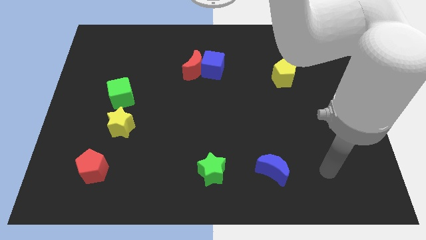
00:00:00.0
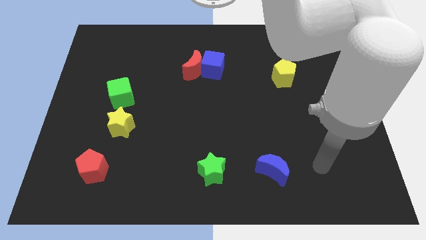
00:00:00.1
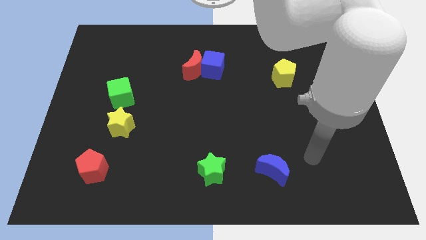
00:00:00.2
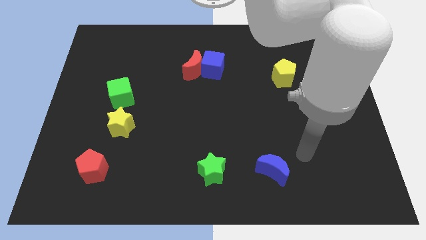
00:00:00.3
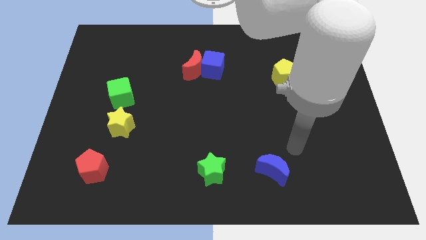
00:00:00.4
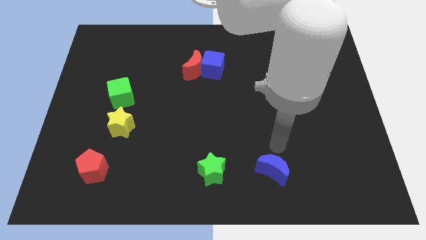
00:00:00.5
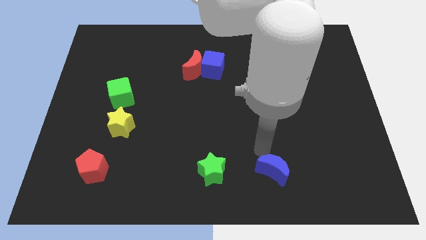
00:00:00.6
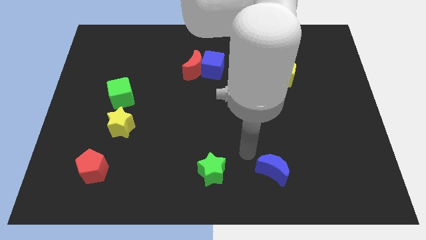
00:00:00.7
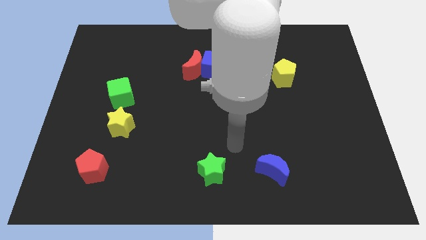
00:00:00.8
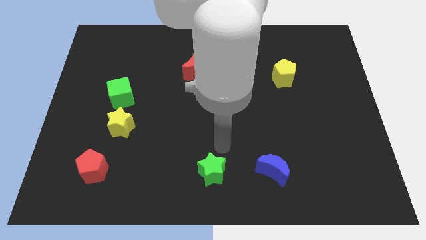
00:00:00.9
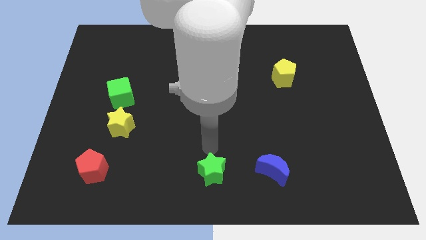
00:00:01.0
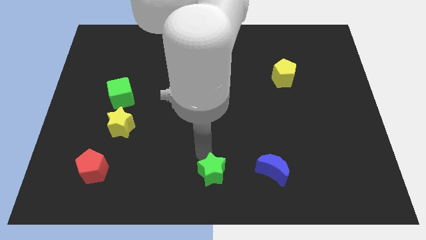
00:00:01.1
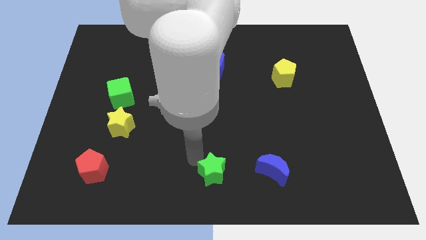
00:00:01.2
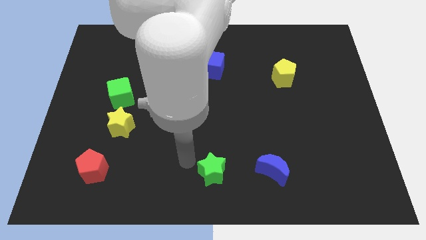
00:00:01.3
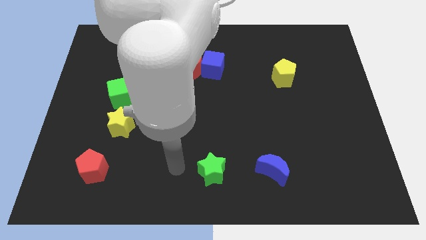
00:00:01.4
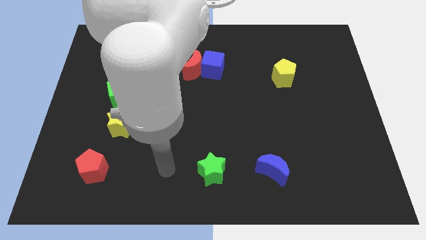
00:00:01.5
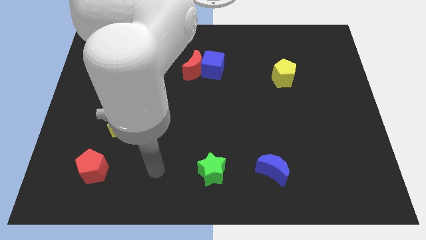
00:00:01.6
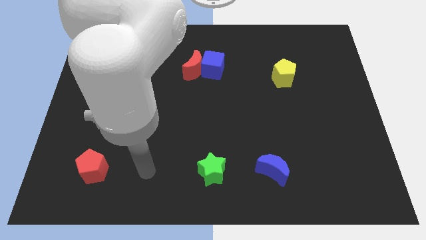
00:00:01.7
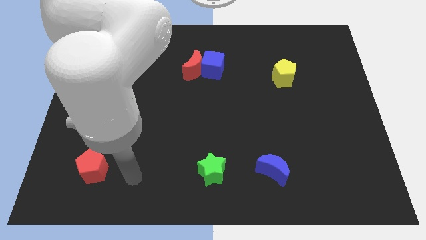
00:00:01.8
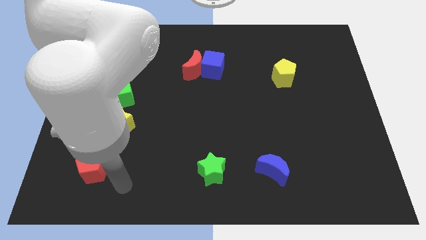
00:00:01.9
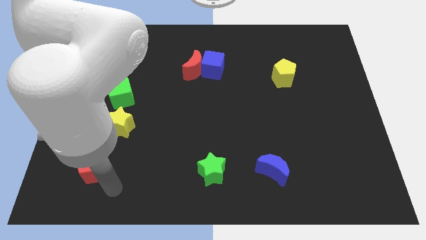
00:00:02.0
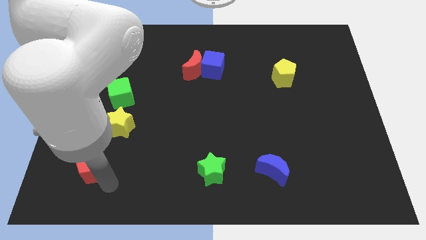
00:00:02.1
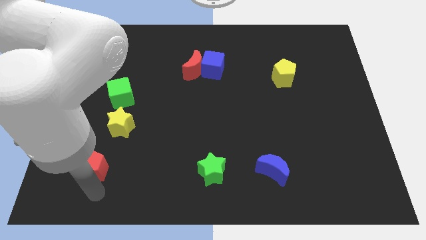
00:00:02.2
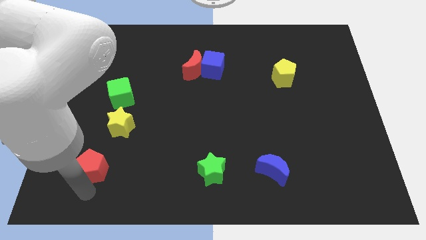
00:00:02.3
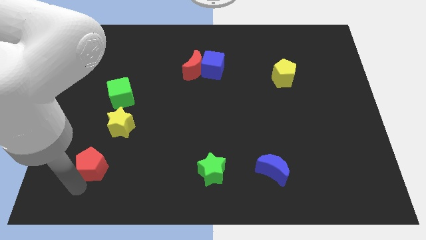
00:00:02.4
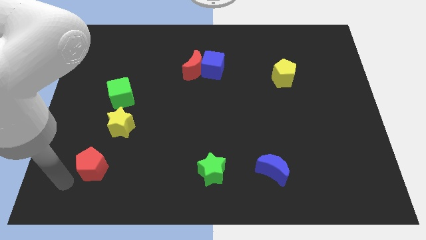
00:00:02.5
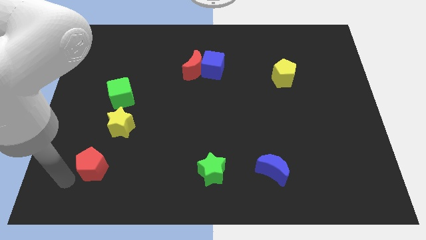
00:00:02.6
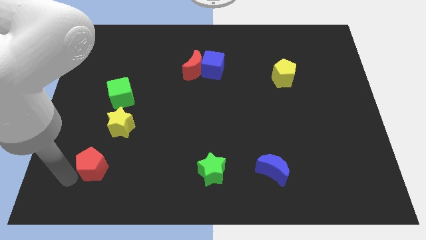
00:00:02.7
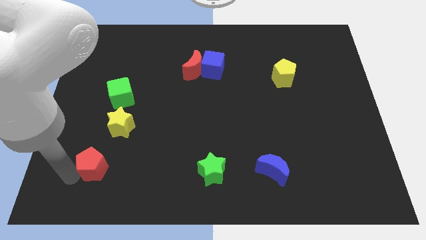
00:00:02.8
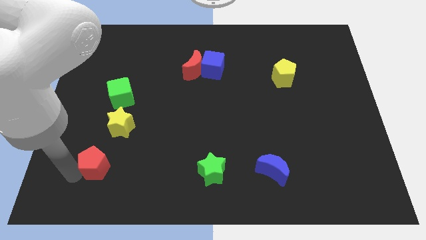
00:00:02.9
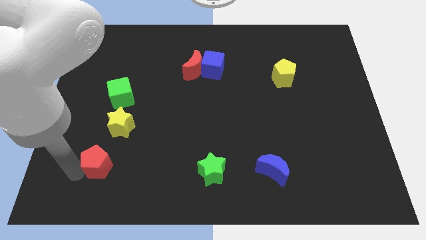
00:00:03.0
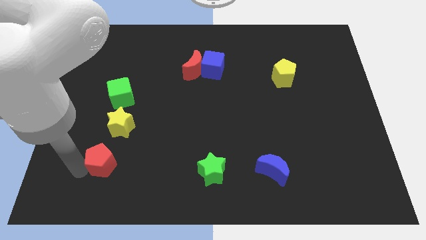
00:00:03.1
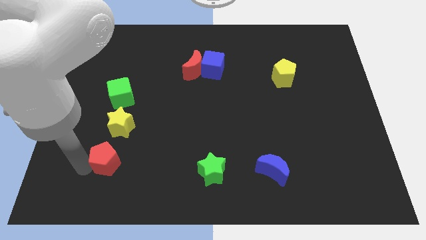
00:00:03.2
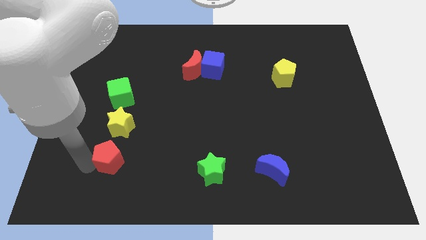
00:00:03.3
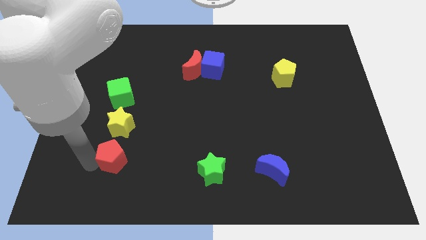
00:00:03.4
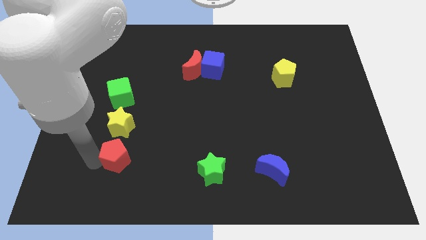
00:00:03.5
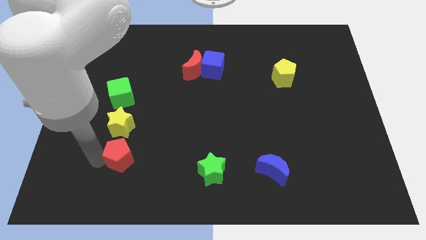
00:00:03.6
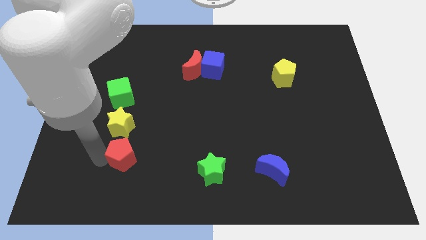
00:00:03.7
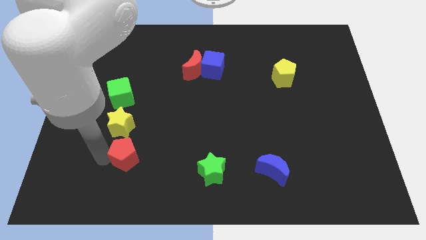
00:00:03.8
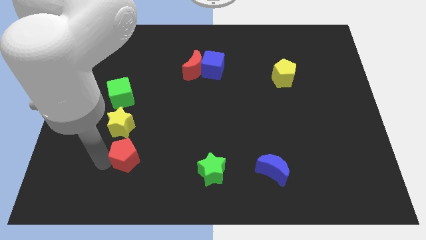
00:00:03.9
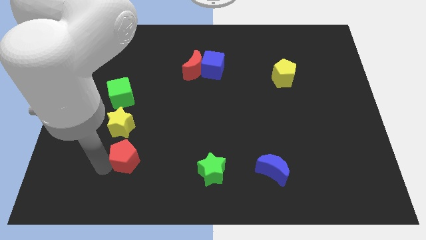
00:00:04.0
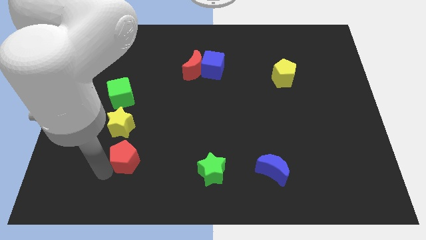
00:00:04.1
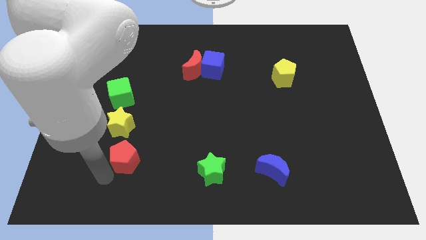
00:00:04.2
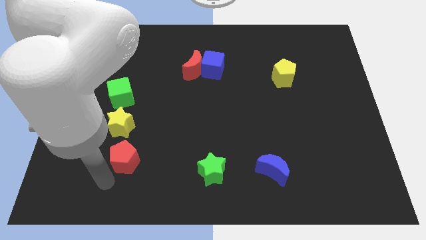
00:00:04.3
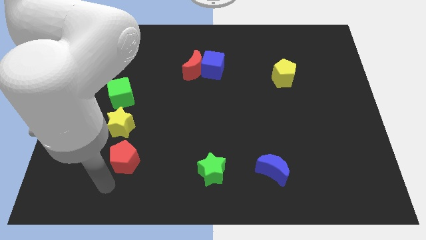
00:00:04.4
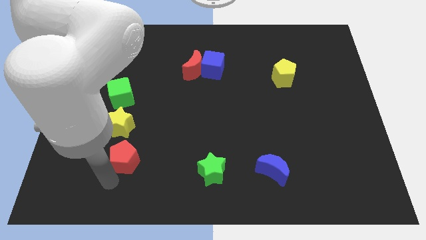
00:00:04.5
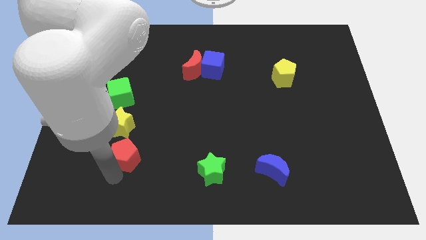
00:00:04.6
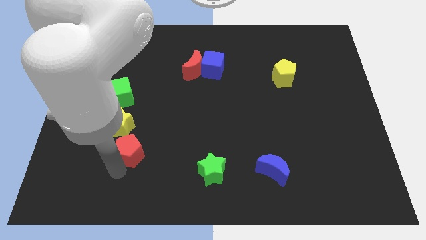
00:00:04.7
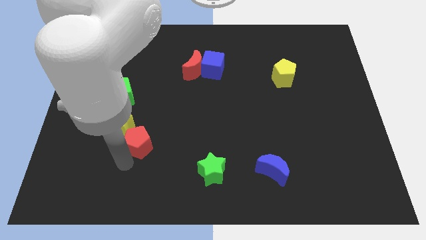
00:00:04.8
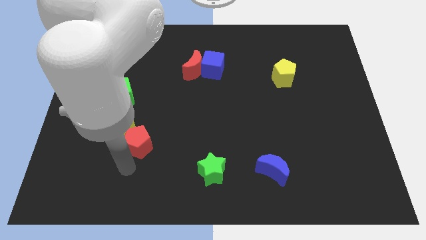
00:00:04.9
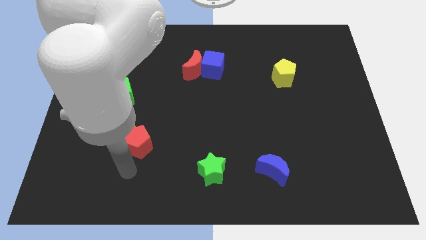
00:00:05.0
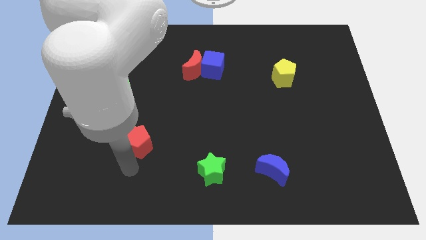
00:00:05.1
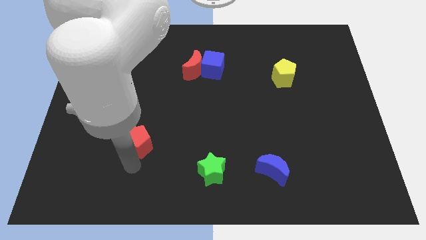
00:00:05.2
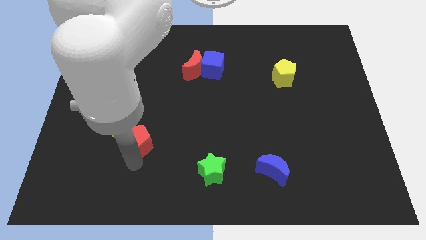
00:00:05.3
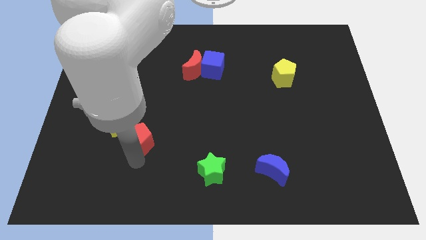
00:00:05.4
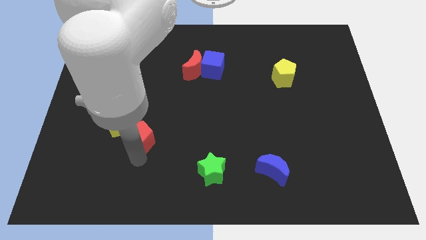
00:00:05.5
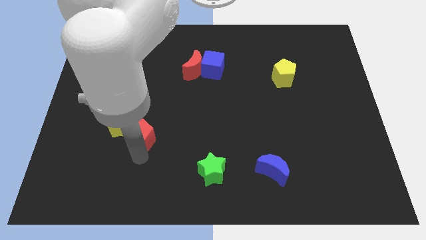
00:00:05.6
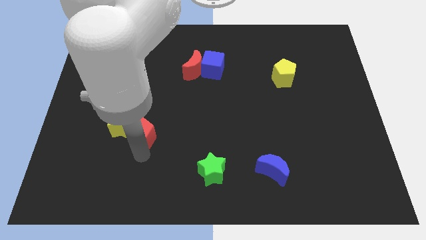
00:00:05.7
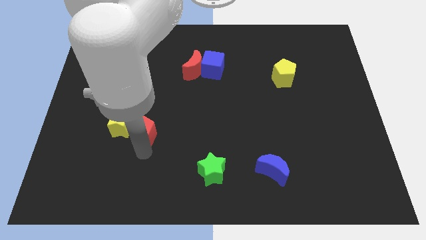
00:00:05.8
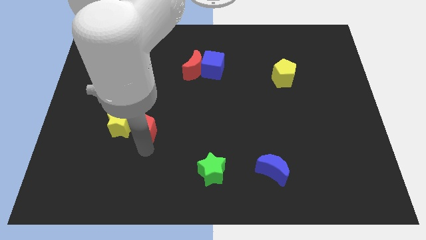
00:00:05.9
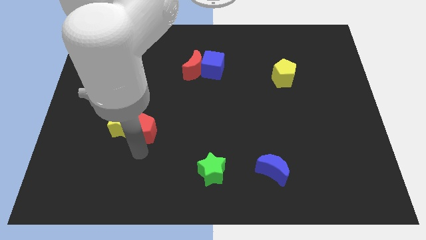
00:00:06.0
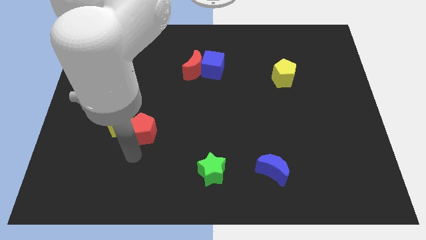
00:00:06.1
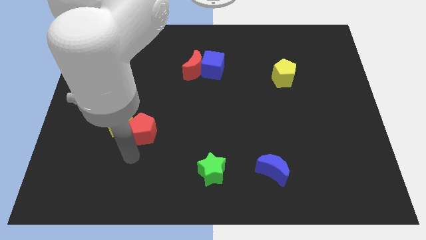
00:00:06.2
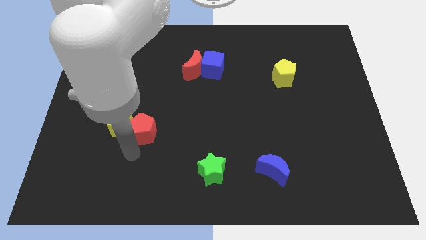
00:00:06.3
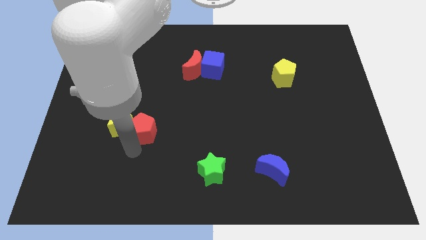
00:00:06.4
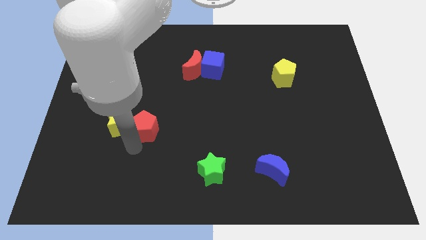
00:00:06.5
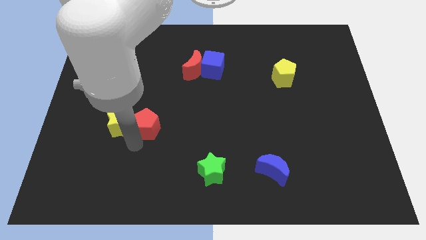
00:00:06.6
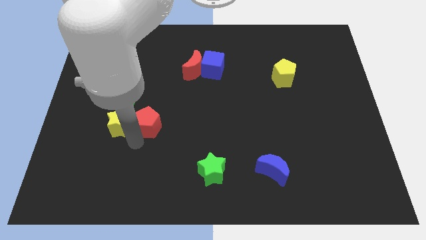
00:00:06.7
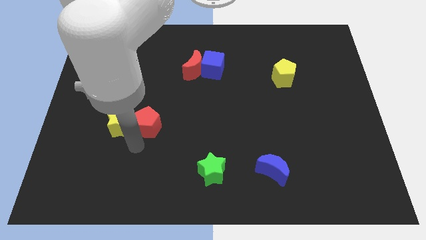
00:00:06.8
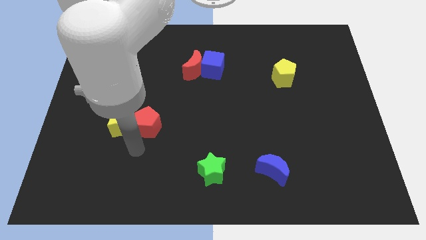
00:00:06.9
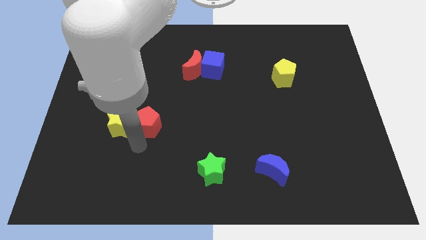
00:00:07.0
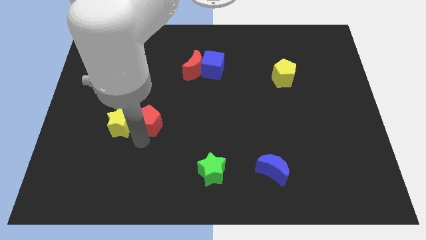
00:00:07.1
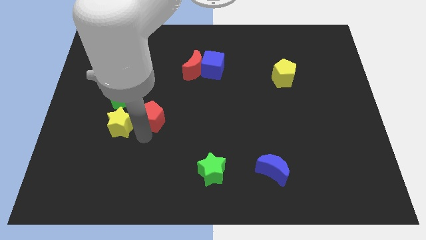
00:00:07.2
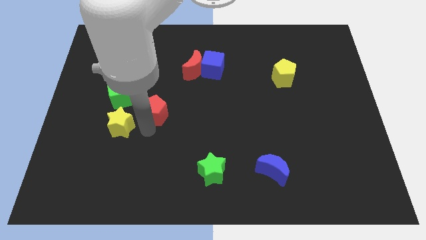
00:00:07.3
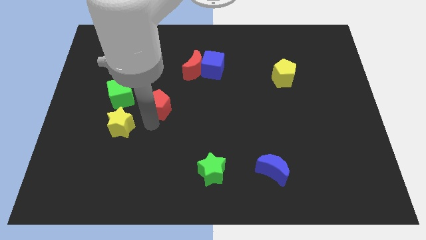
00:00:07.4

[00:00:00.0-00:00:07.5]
move the red pentagon to the right of the green cube
